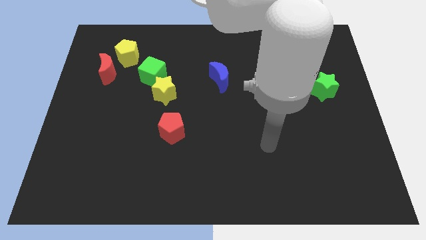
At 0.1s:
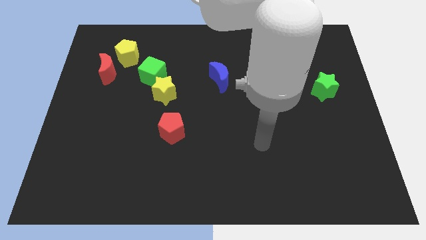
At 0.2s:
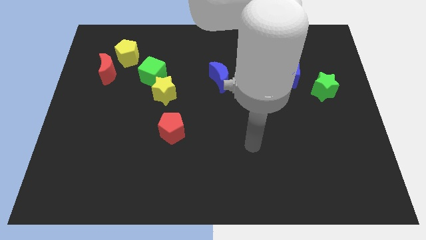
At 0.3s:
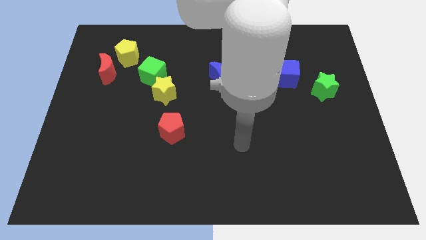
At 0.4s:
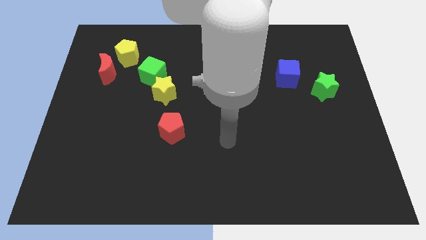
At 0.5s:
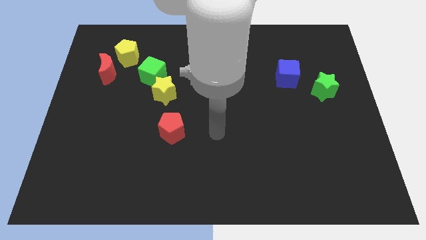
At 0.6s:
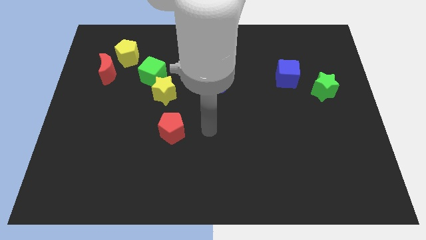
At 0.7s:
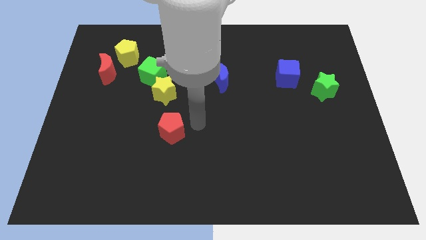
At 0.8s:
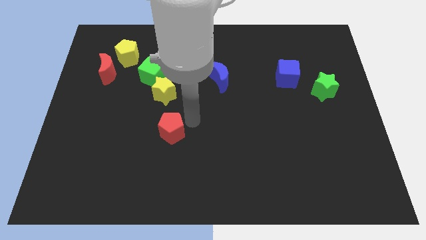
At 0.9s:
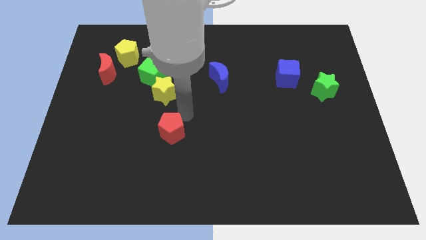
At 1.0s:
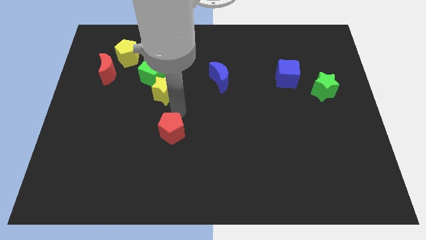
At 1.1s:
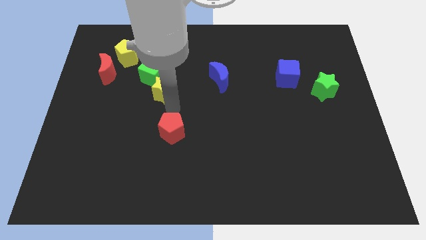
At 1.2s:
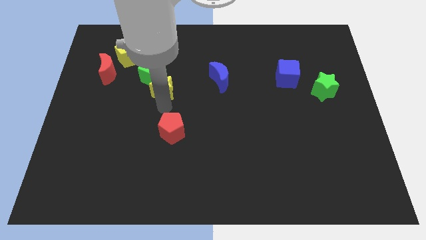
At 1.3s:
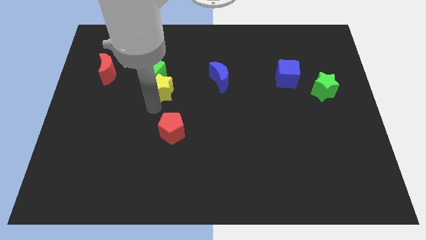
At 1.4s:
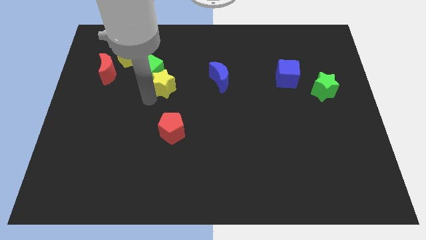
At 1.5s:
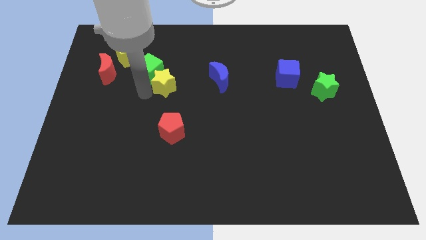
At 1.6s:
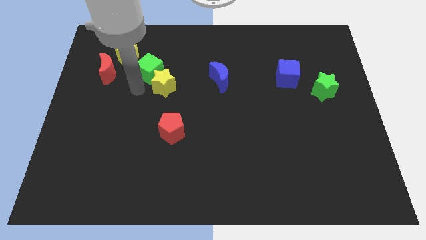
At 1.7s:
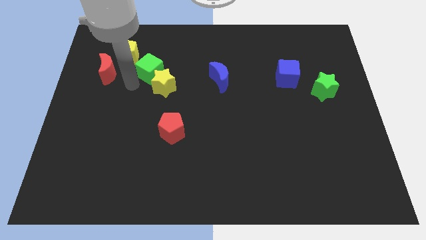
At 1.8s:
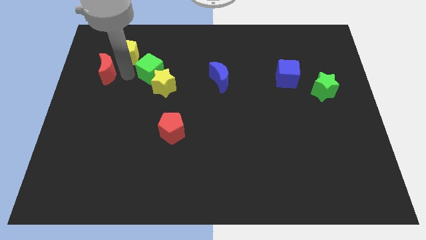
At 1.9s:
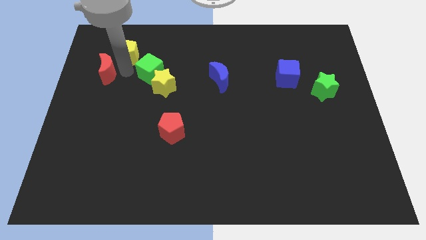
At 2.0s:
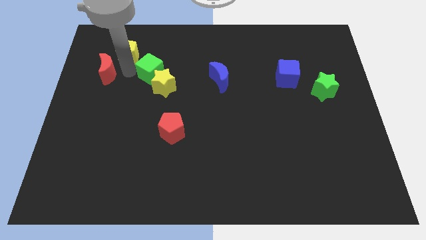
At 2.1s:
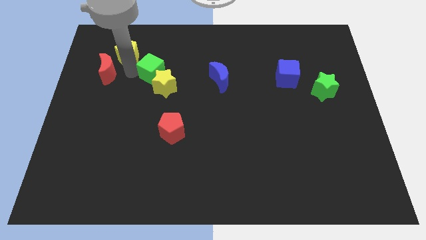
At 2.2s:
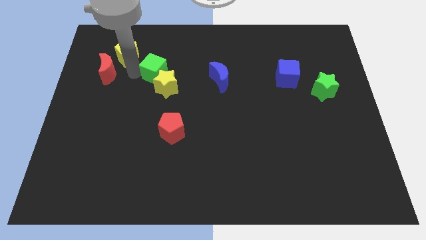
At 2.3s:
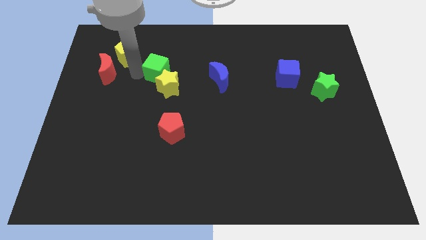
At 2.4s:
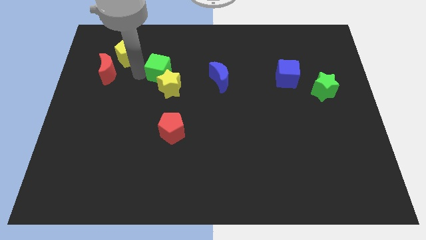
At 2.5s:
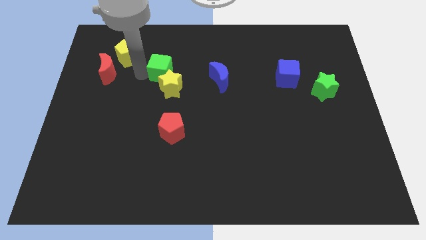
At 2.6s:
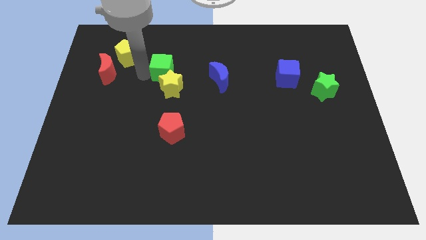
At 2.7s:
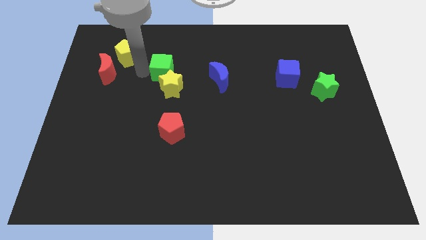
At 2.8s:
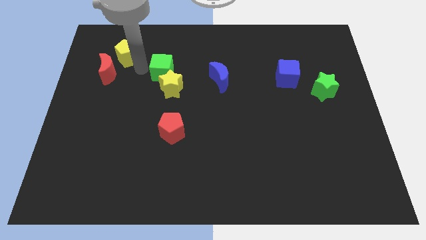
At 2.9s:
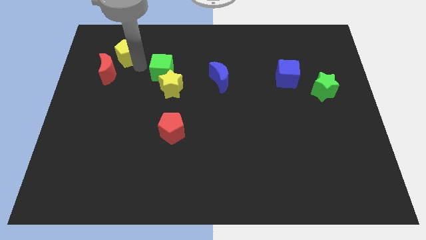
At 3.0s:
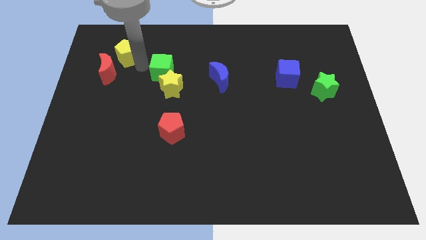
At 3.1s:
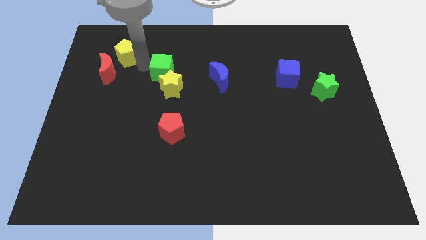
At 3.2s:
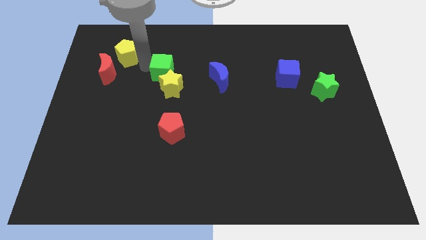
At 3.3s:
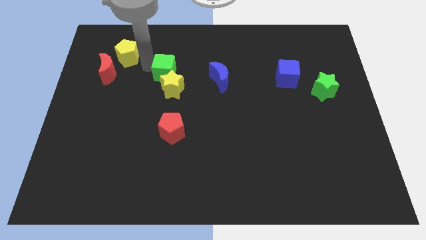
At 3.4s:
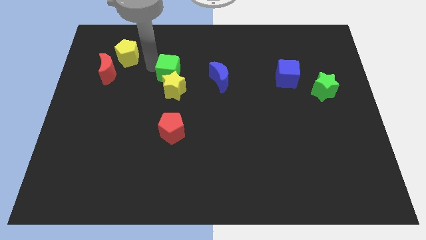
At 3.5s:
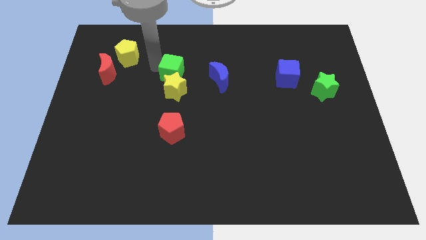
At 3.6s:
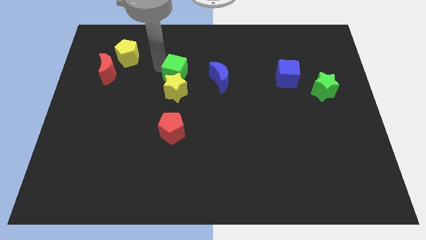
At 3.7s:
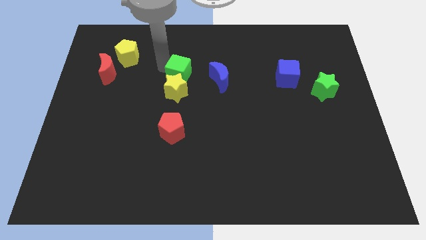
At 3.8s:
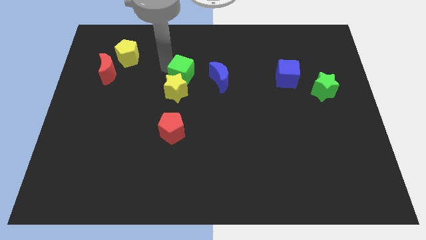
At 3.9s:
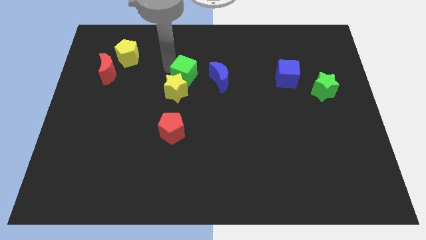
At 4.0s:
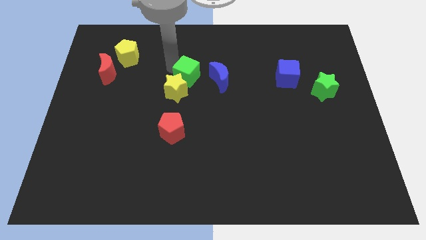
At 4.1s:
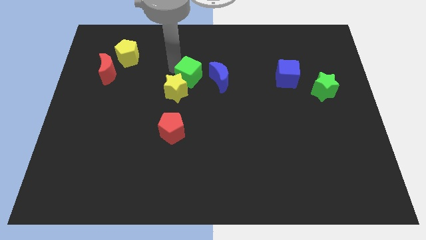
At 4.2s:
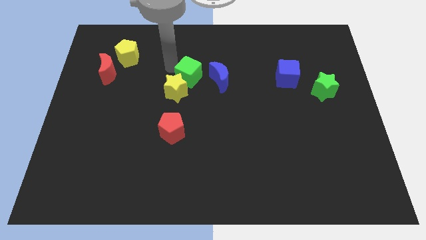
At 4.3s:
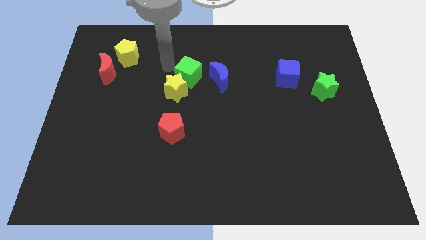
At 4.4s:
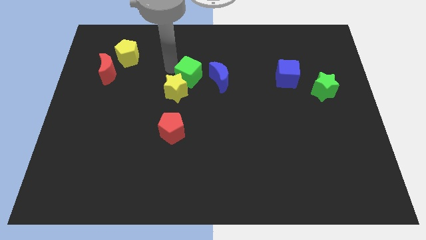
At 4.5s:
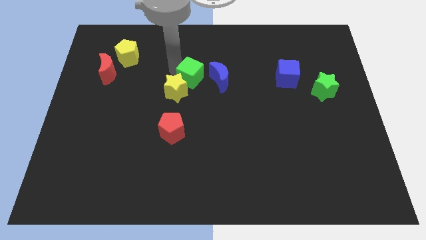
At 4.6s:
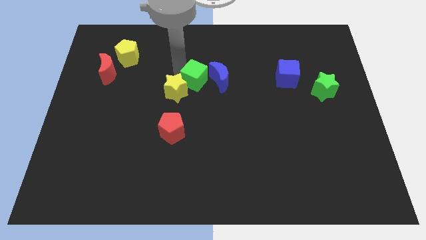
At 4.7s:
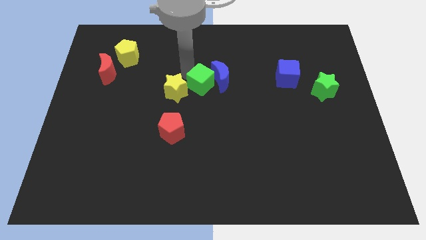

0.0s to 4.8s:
slightly move the green cube down and to the right diagonally

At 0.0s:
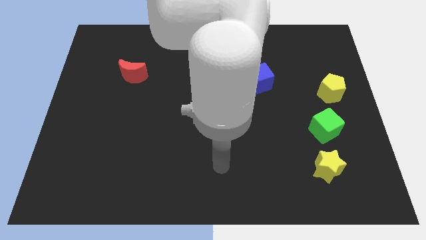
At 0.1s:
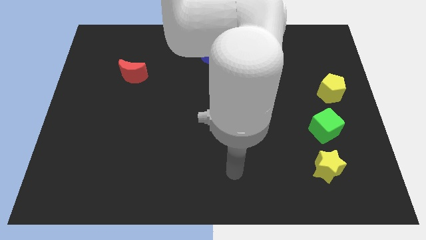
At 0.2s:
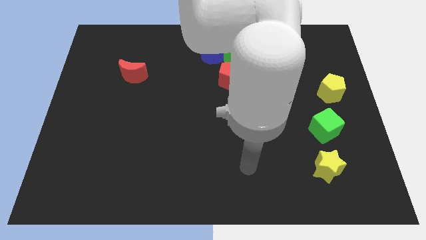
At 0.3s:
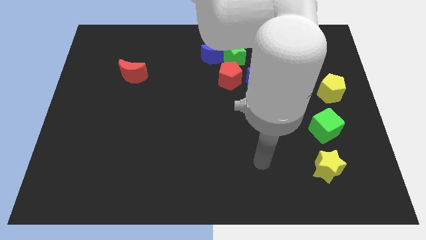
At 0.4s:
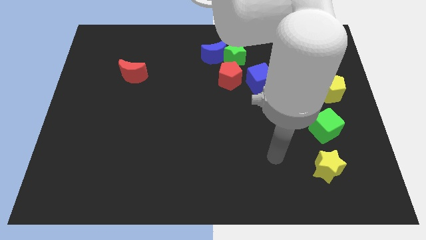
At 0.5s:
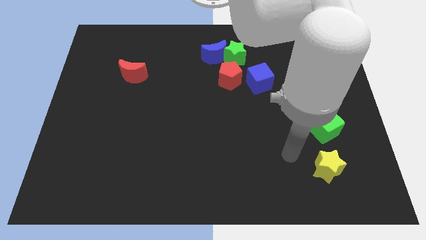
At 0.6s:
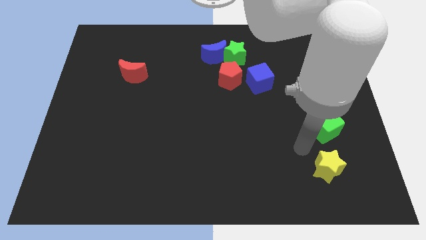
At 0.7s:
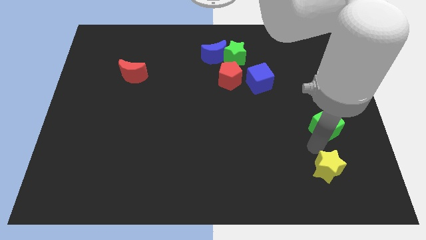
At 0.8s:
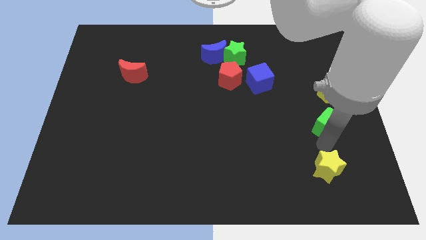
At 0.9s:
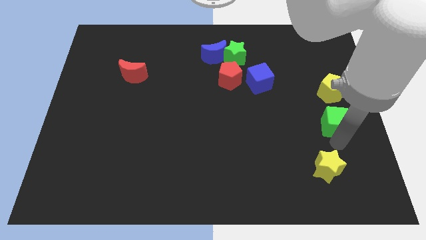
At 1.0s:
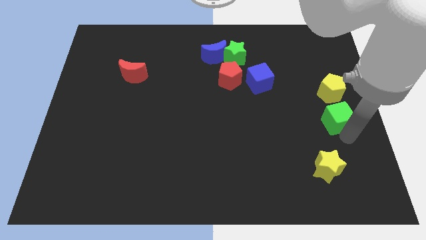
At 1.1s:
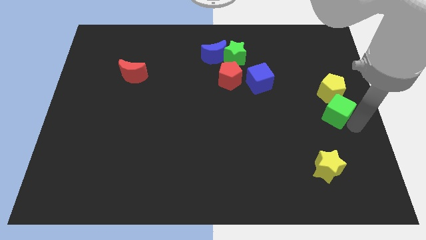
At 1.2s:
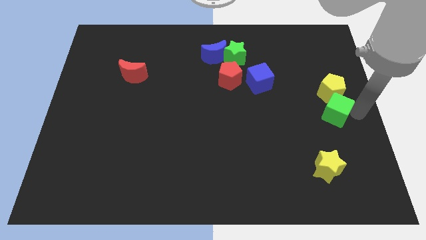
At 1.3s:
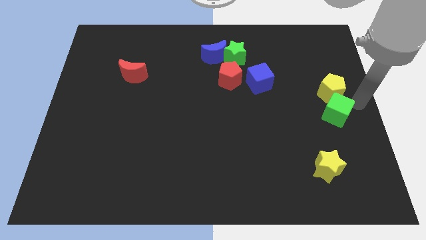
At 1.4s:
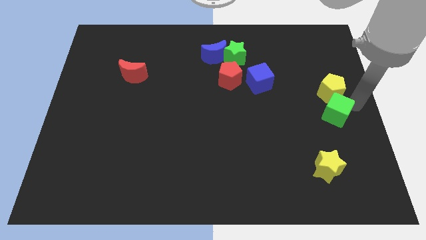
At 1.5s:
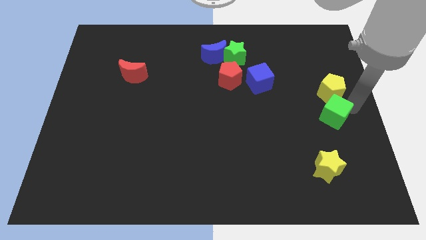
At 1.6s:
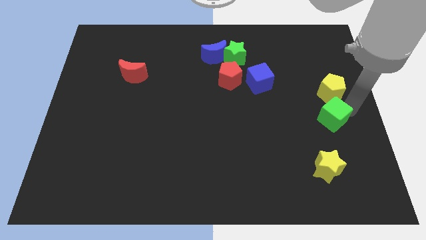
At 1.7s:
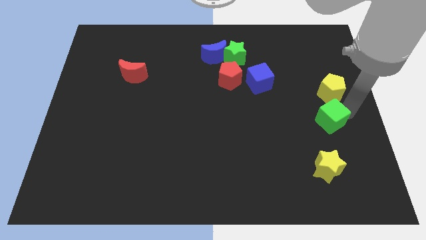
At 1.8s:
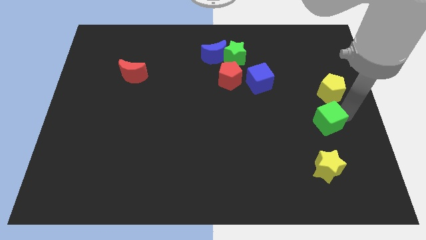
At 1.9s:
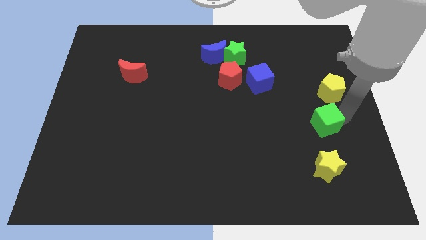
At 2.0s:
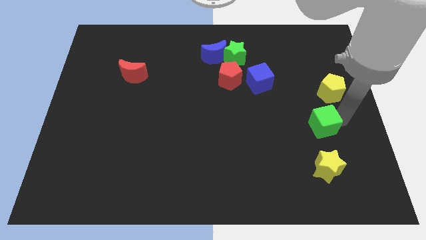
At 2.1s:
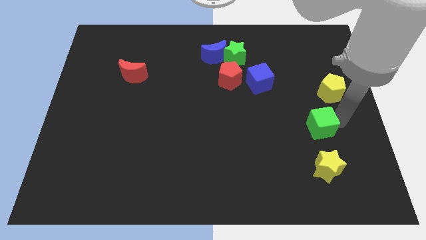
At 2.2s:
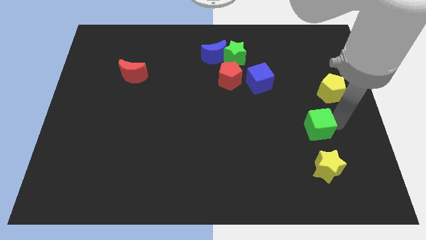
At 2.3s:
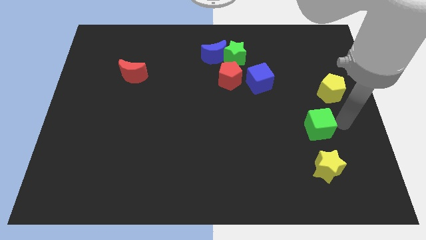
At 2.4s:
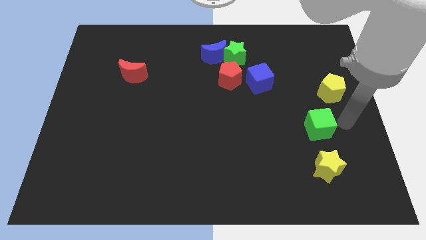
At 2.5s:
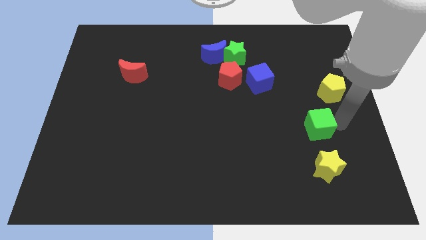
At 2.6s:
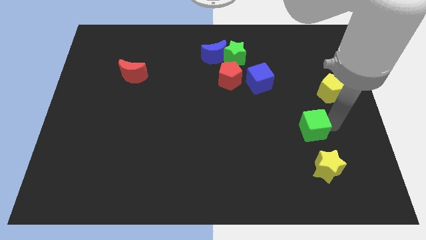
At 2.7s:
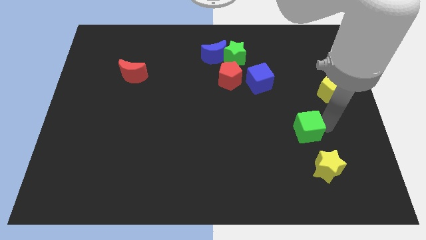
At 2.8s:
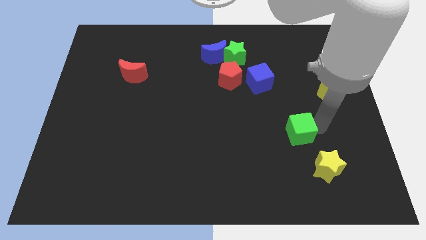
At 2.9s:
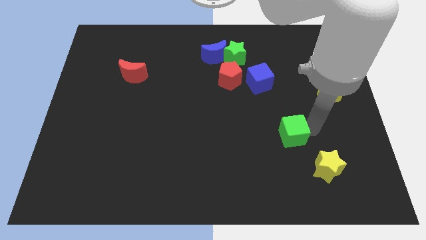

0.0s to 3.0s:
move the green cube to the left slightly

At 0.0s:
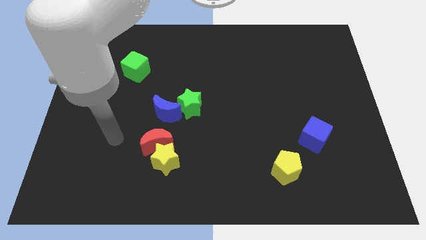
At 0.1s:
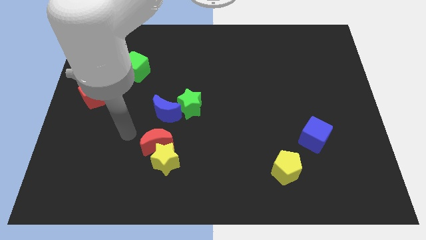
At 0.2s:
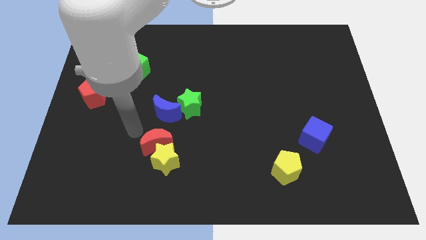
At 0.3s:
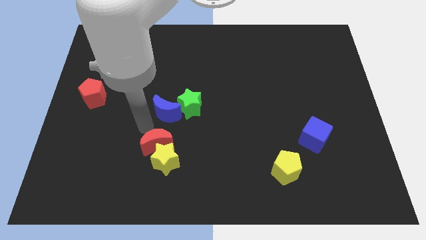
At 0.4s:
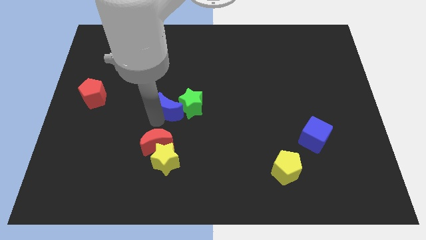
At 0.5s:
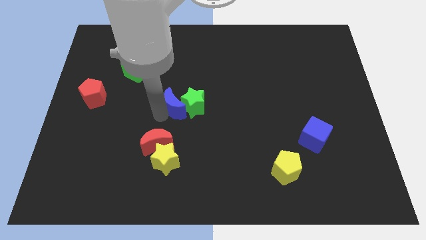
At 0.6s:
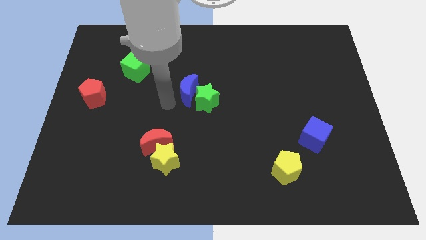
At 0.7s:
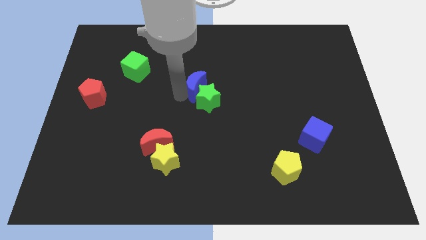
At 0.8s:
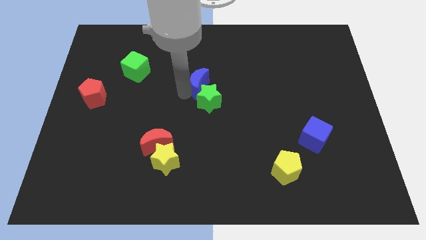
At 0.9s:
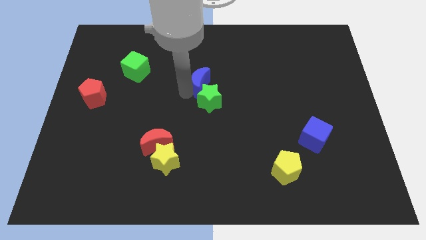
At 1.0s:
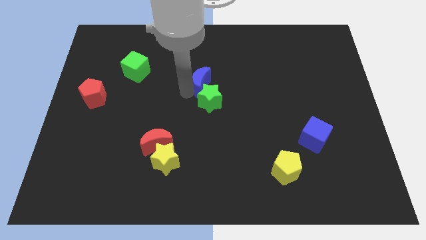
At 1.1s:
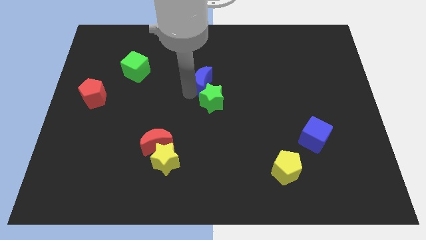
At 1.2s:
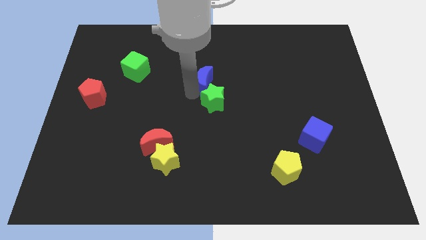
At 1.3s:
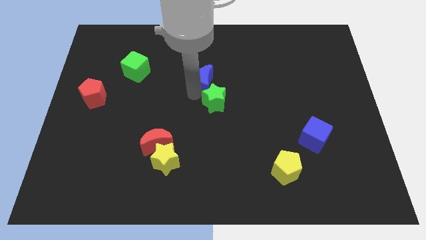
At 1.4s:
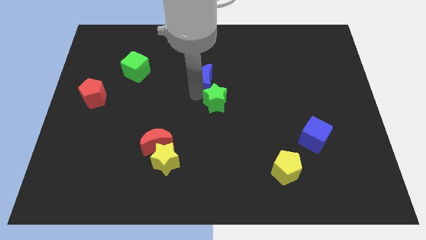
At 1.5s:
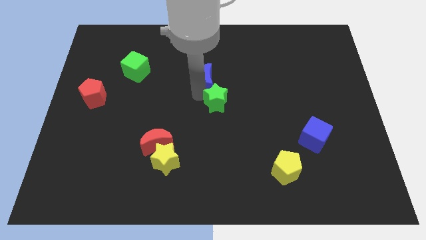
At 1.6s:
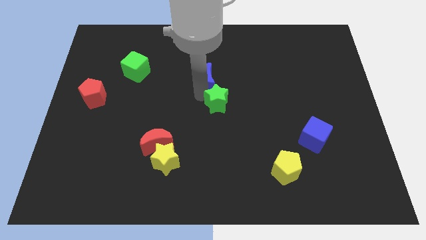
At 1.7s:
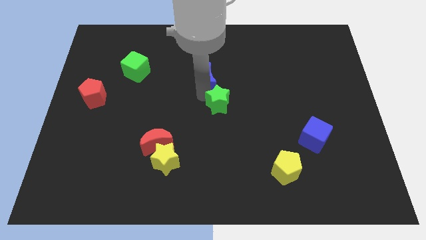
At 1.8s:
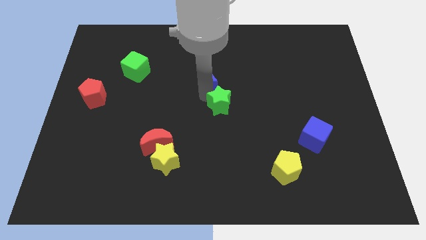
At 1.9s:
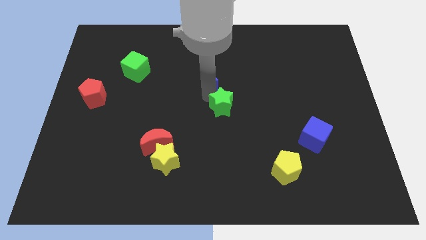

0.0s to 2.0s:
slide the green star slightly right
